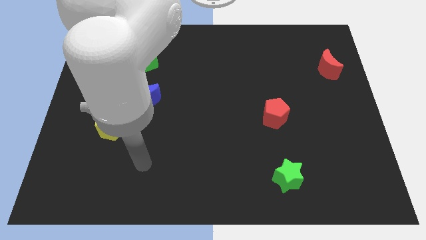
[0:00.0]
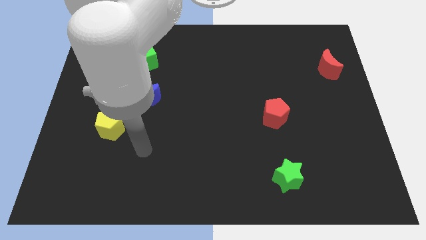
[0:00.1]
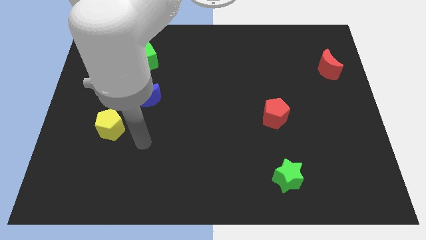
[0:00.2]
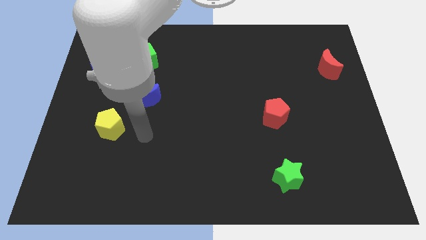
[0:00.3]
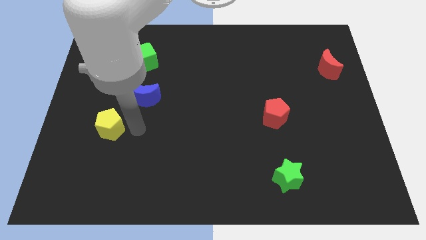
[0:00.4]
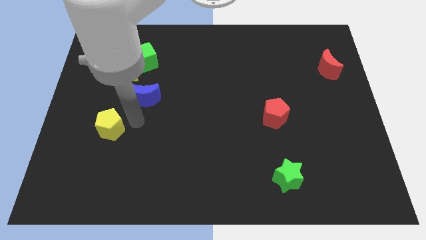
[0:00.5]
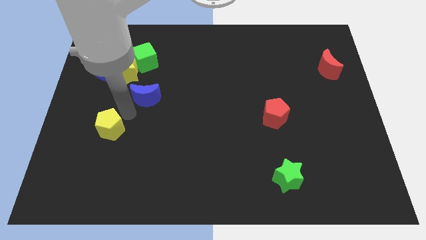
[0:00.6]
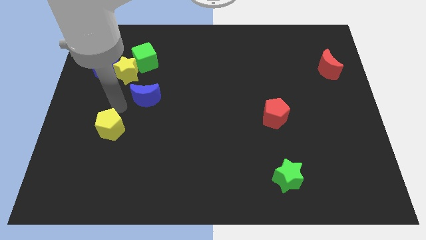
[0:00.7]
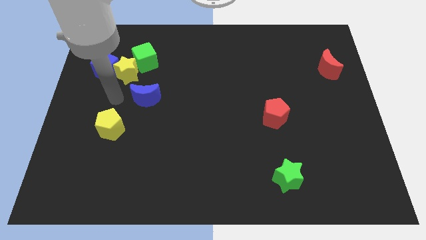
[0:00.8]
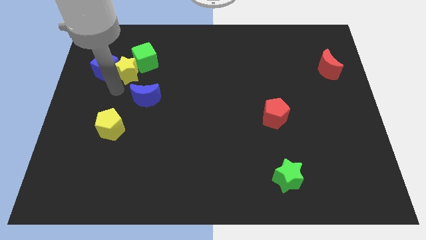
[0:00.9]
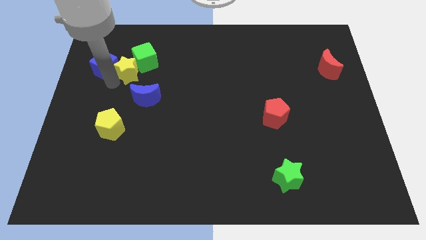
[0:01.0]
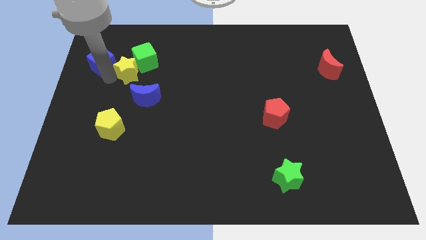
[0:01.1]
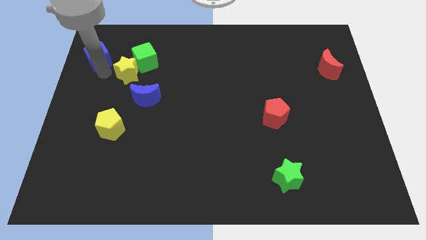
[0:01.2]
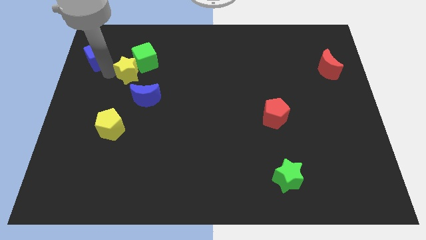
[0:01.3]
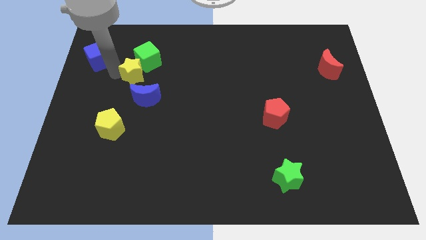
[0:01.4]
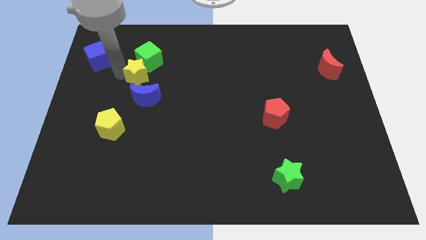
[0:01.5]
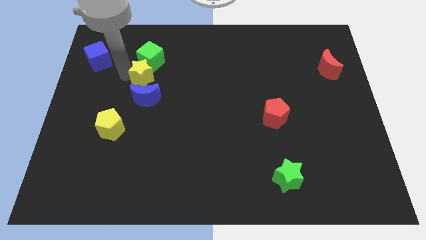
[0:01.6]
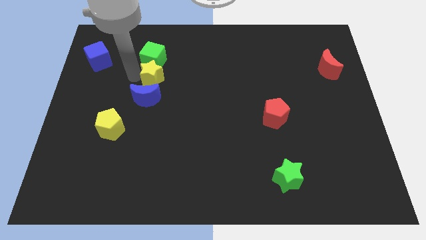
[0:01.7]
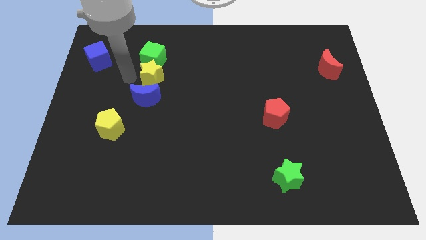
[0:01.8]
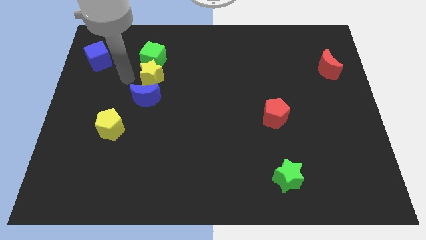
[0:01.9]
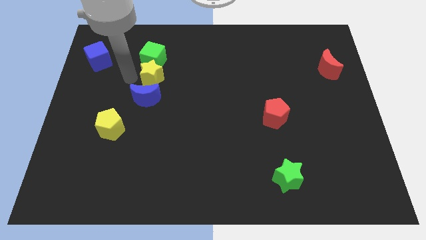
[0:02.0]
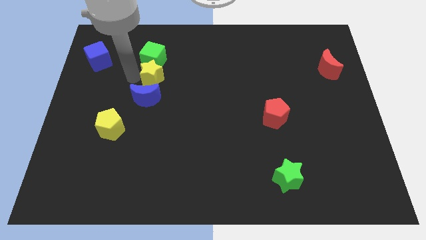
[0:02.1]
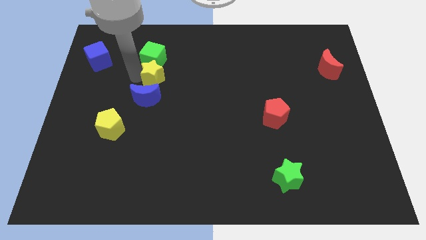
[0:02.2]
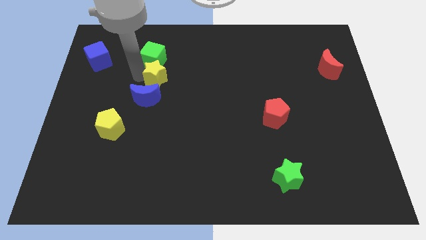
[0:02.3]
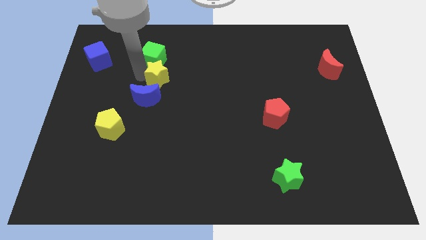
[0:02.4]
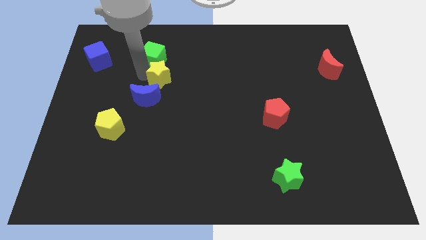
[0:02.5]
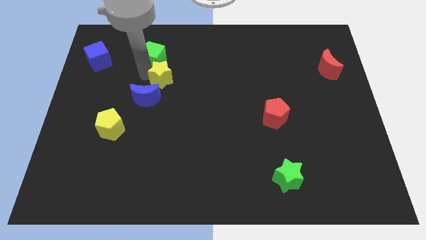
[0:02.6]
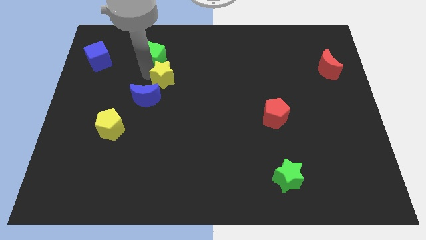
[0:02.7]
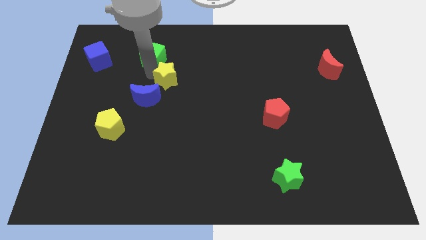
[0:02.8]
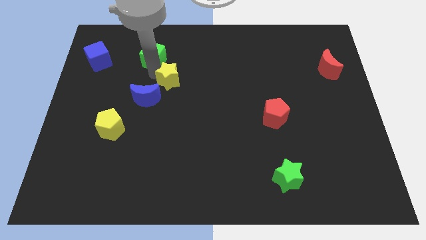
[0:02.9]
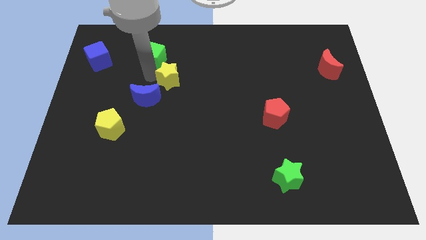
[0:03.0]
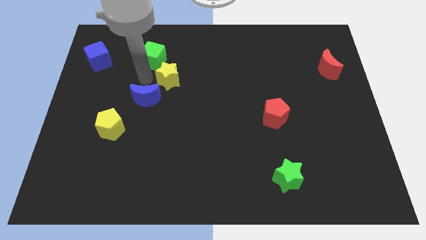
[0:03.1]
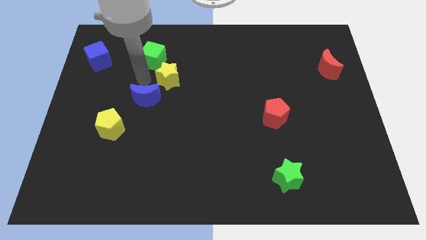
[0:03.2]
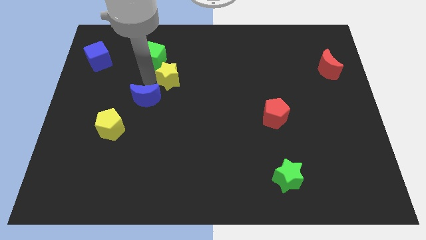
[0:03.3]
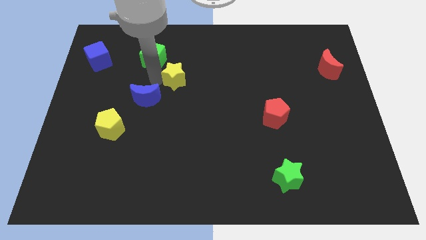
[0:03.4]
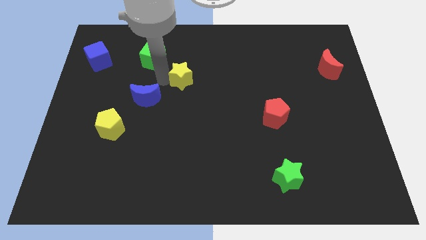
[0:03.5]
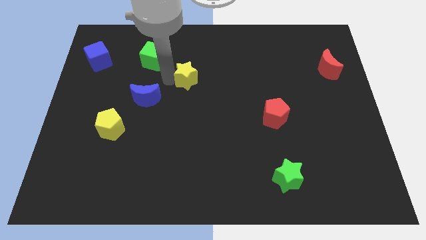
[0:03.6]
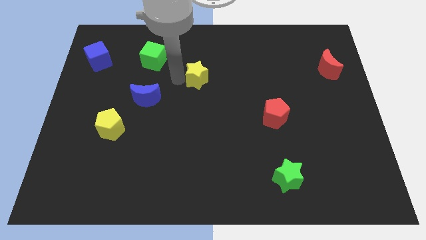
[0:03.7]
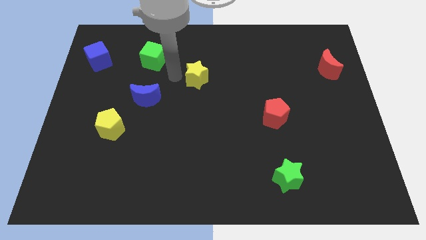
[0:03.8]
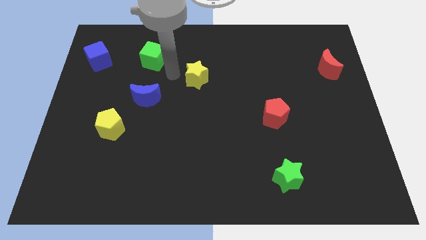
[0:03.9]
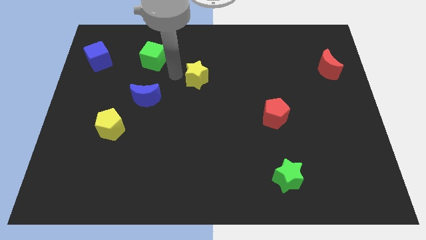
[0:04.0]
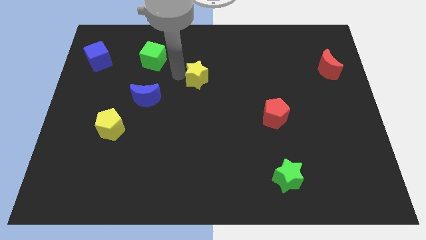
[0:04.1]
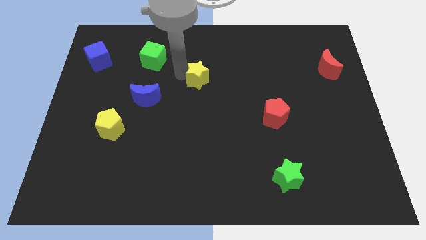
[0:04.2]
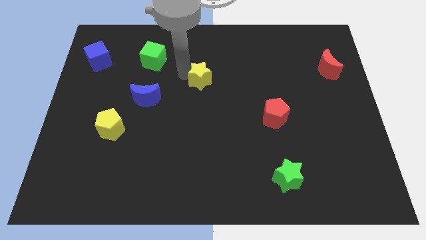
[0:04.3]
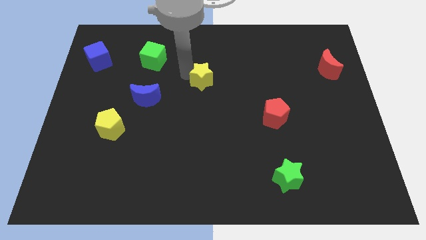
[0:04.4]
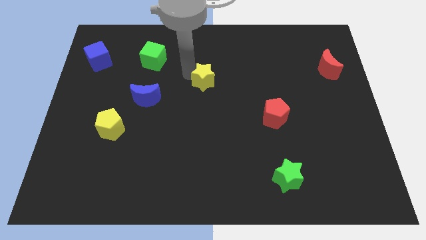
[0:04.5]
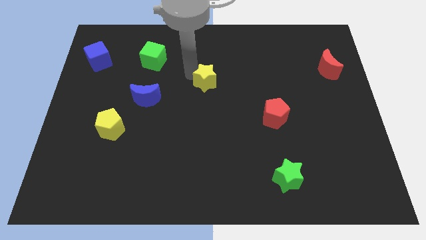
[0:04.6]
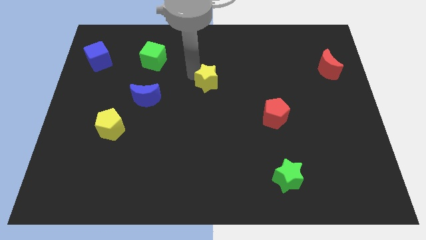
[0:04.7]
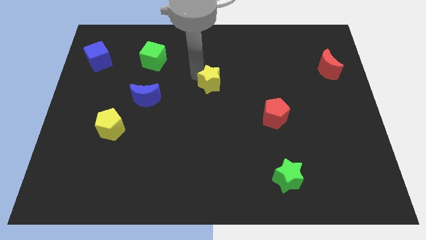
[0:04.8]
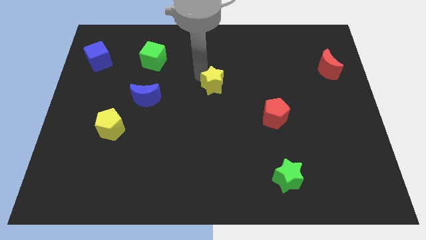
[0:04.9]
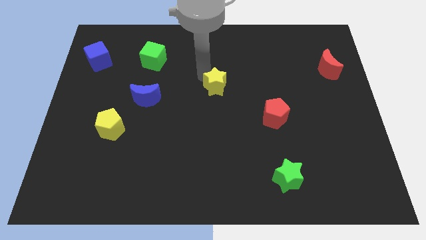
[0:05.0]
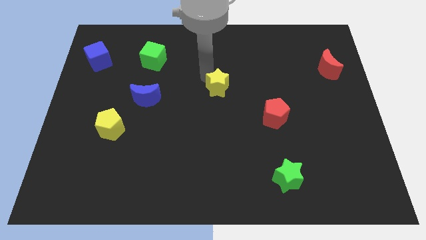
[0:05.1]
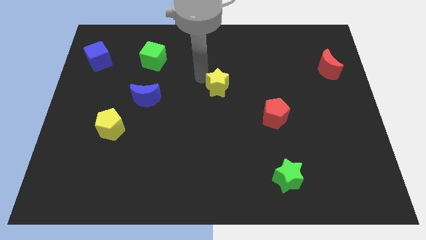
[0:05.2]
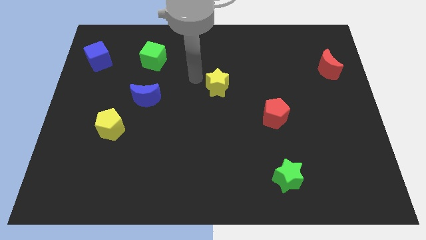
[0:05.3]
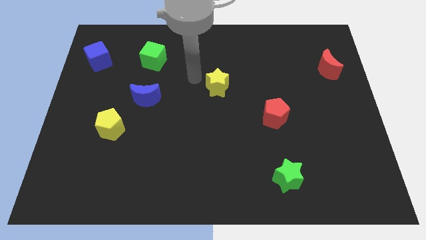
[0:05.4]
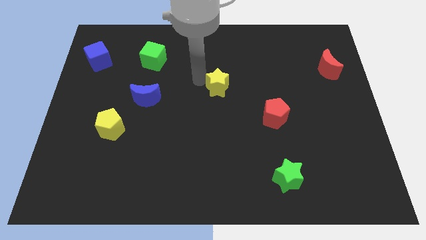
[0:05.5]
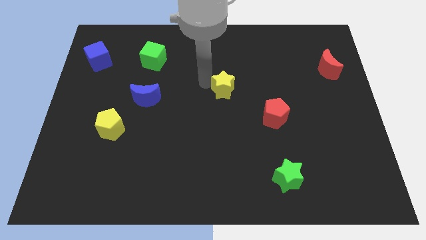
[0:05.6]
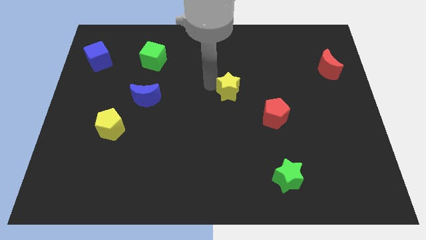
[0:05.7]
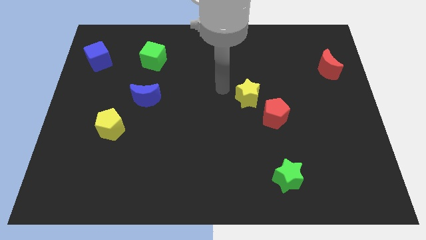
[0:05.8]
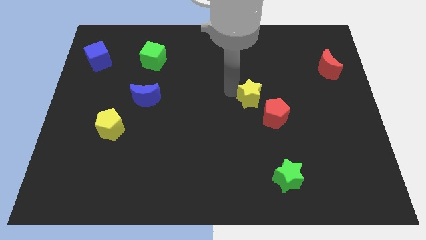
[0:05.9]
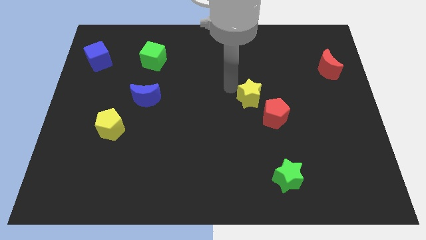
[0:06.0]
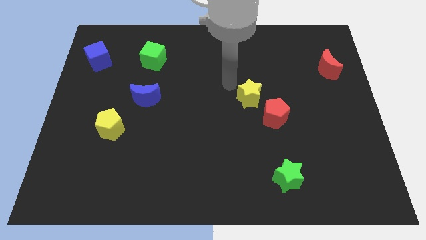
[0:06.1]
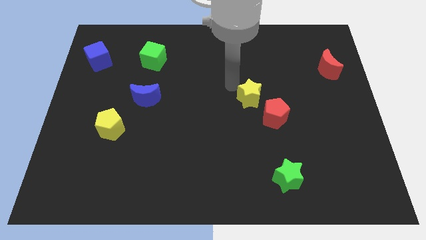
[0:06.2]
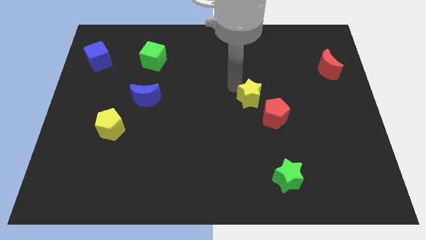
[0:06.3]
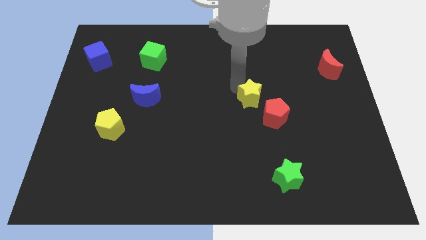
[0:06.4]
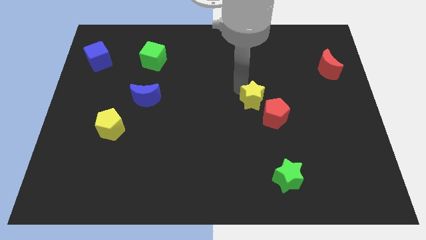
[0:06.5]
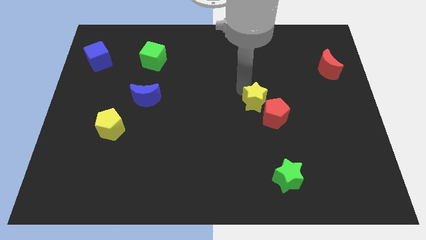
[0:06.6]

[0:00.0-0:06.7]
move the yellow star to the red pentagon

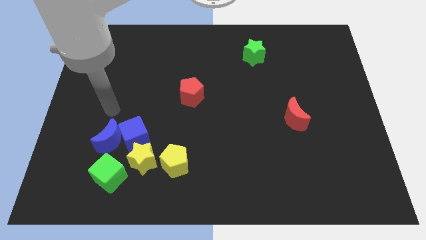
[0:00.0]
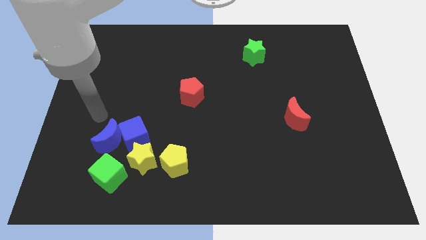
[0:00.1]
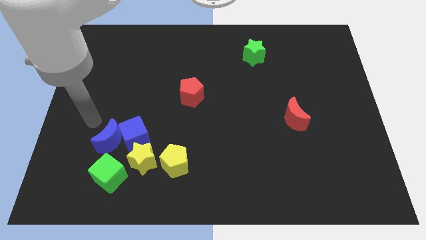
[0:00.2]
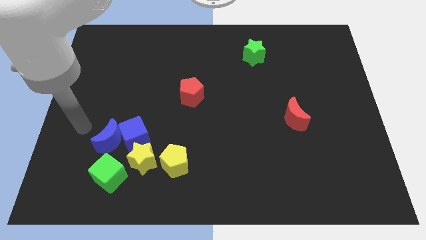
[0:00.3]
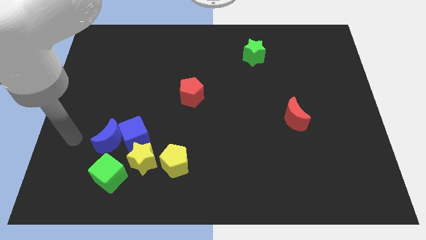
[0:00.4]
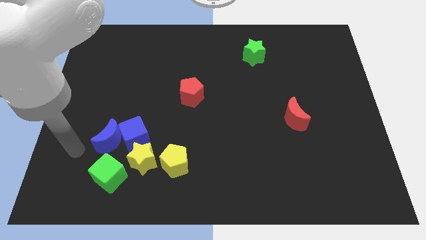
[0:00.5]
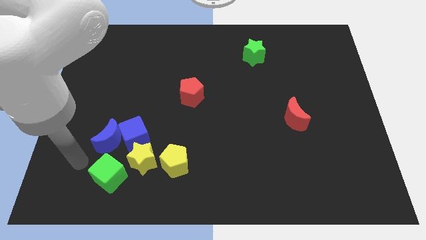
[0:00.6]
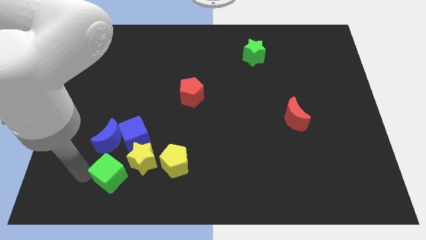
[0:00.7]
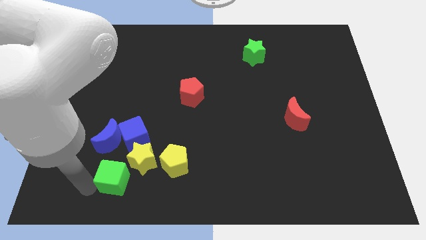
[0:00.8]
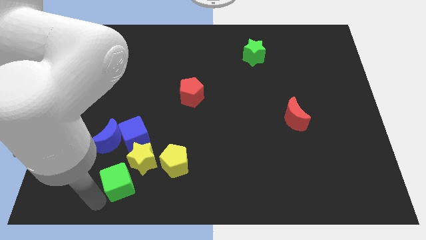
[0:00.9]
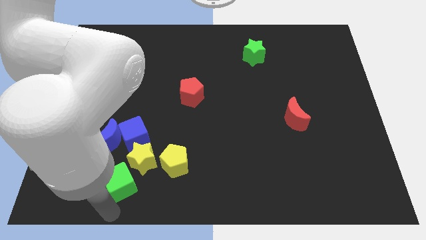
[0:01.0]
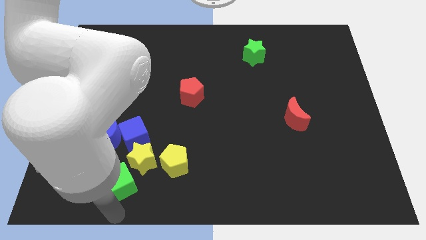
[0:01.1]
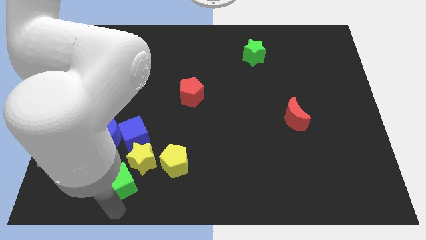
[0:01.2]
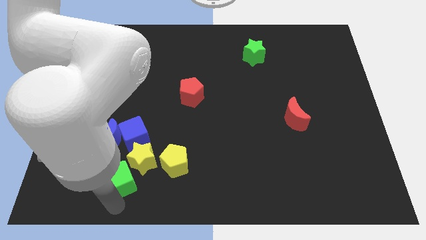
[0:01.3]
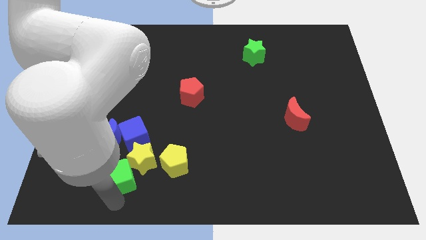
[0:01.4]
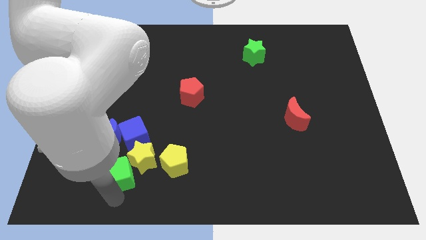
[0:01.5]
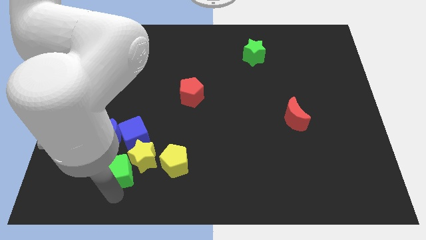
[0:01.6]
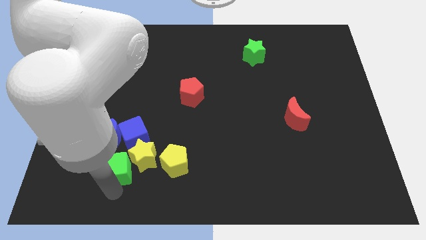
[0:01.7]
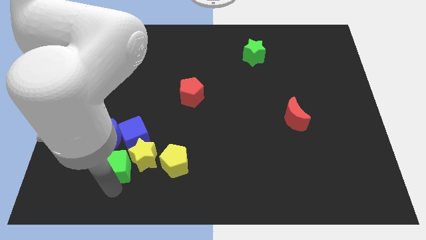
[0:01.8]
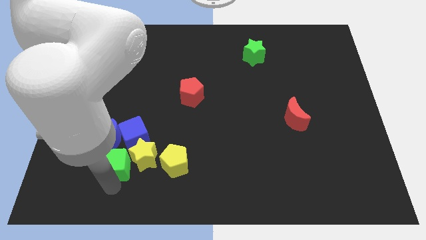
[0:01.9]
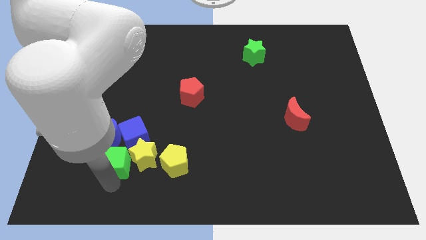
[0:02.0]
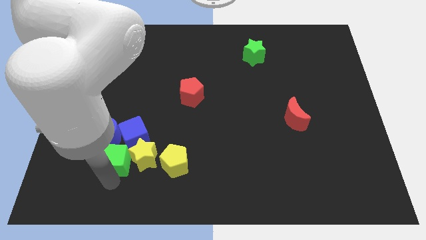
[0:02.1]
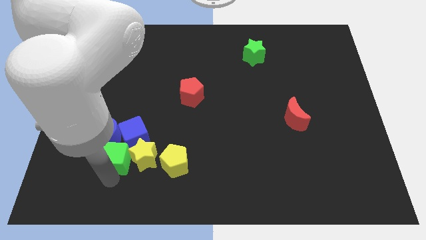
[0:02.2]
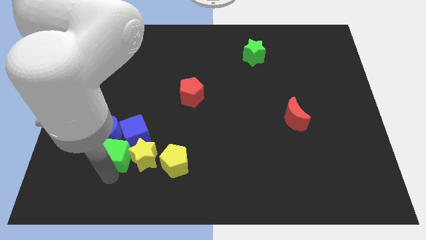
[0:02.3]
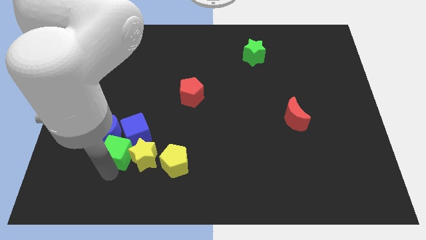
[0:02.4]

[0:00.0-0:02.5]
push the green cube to the blue cube
